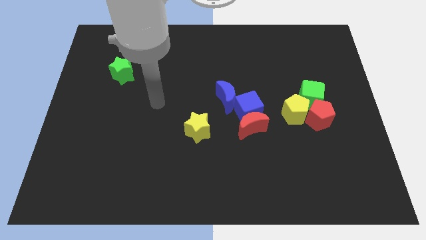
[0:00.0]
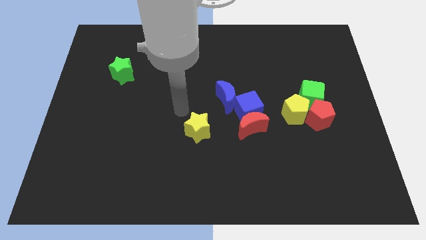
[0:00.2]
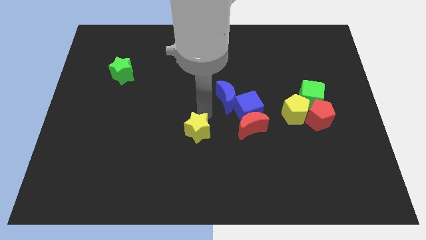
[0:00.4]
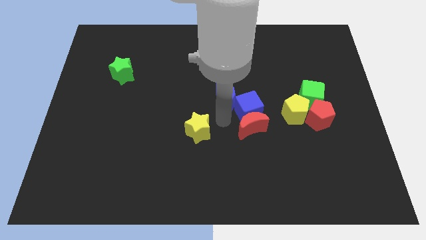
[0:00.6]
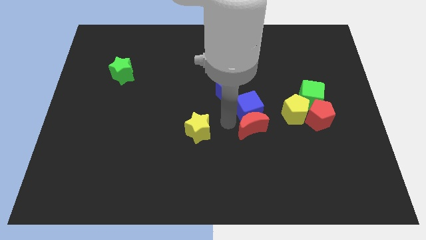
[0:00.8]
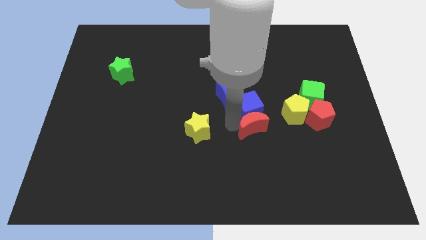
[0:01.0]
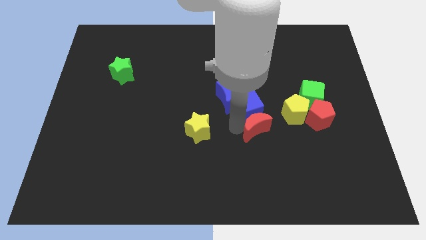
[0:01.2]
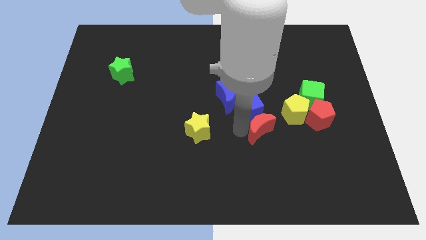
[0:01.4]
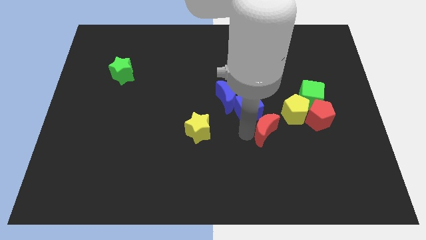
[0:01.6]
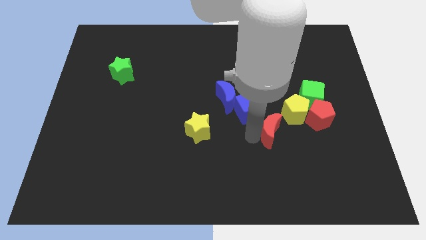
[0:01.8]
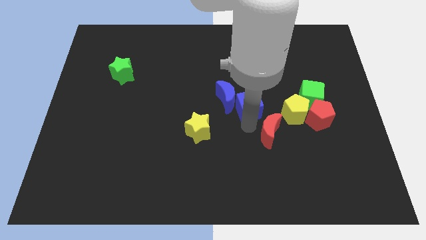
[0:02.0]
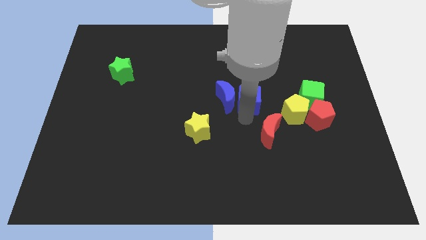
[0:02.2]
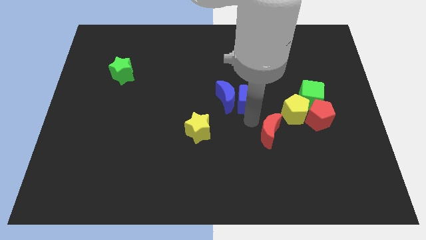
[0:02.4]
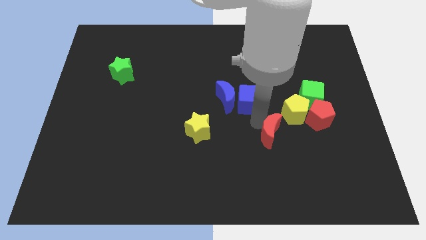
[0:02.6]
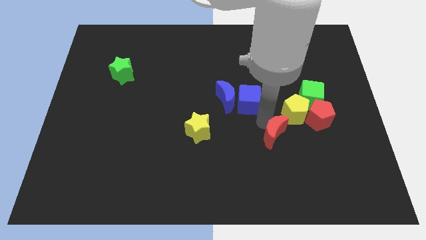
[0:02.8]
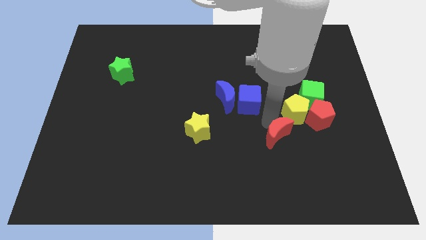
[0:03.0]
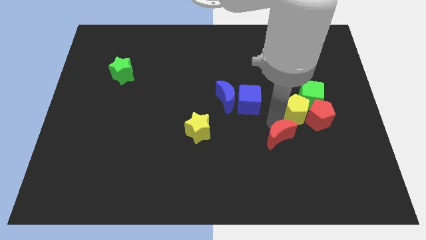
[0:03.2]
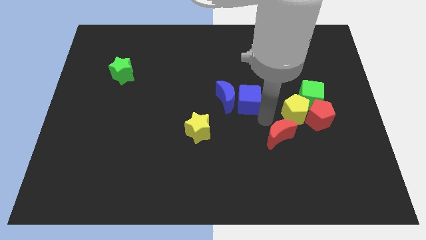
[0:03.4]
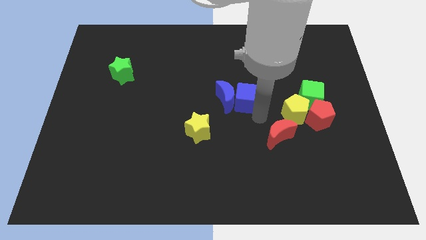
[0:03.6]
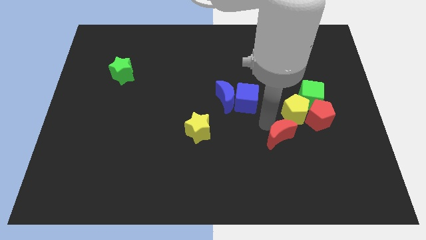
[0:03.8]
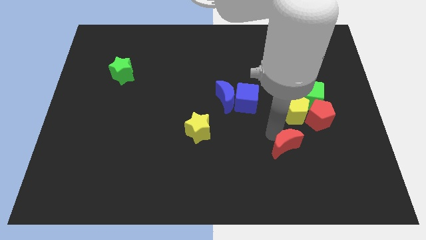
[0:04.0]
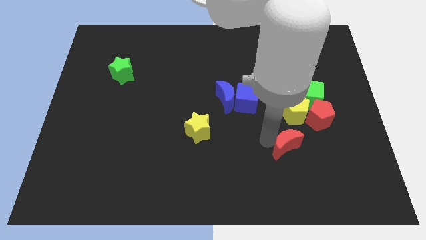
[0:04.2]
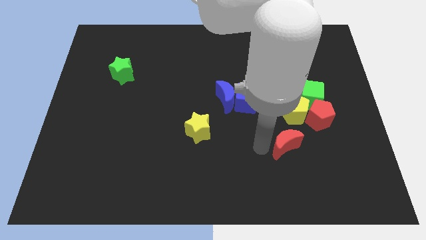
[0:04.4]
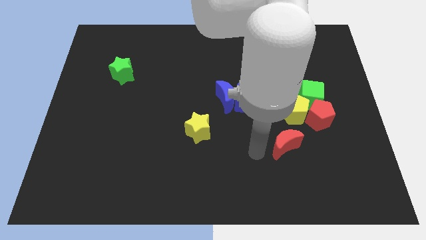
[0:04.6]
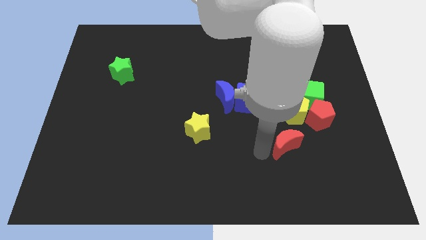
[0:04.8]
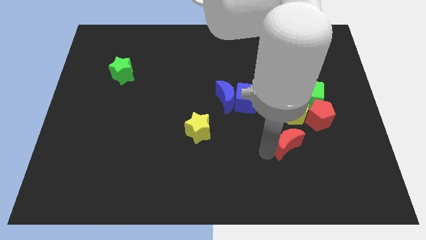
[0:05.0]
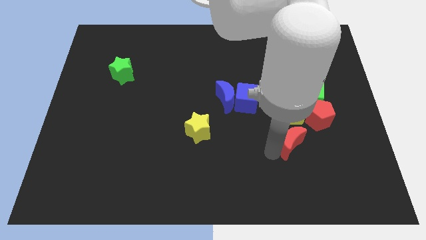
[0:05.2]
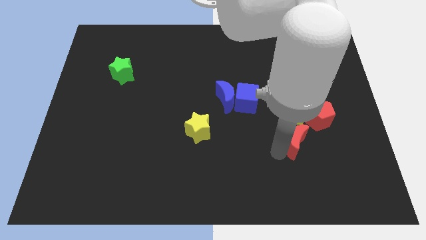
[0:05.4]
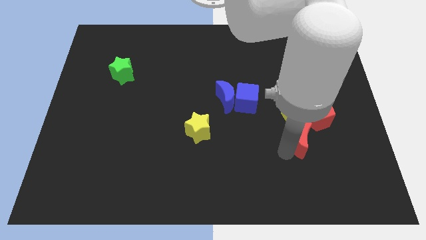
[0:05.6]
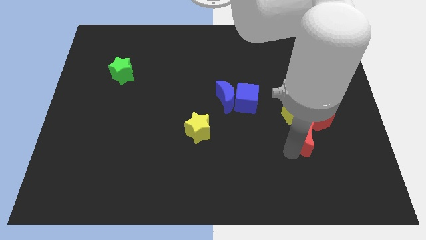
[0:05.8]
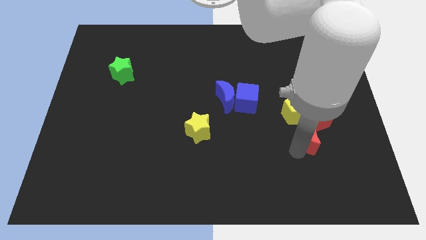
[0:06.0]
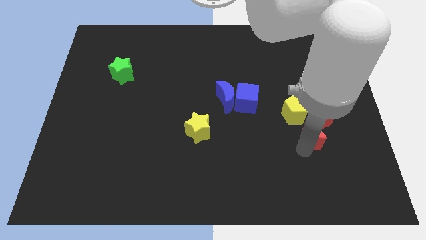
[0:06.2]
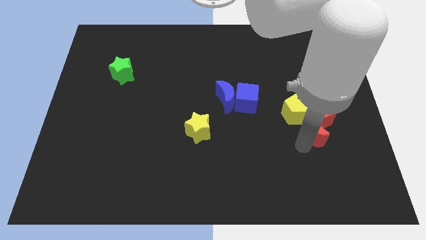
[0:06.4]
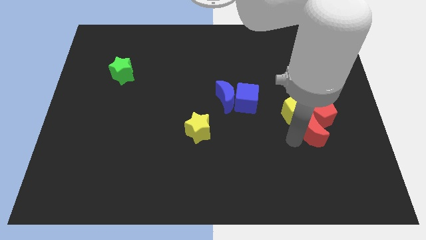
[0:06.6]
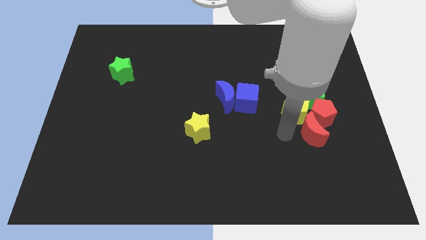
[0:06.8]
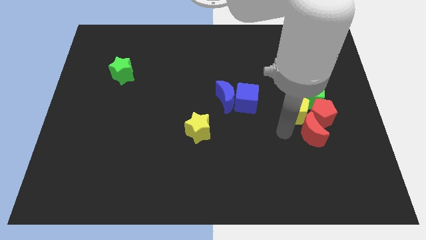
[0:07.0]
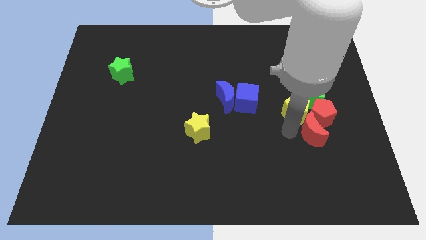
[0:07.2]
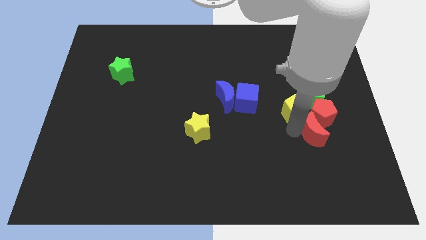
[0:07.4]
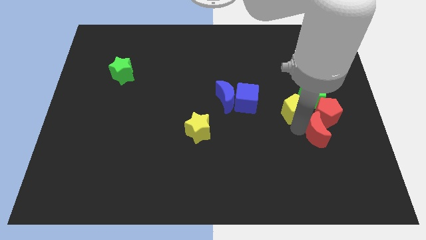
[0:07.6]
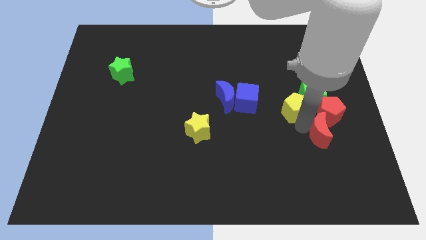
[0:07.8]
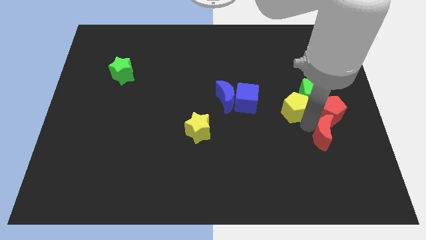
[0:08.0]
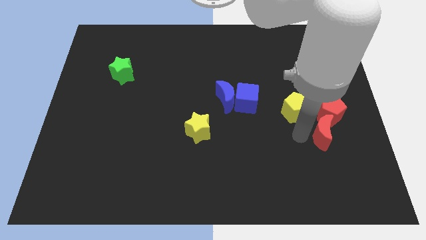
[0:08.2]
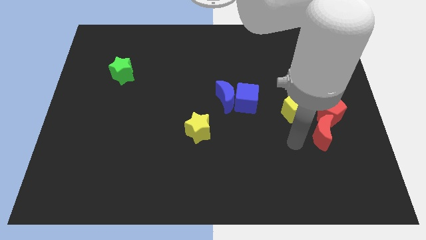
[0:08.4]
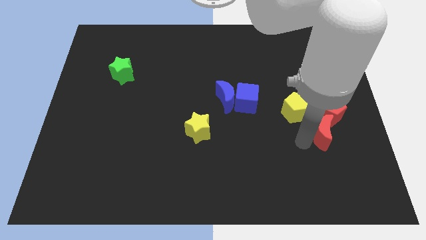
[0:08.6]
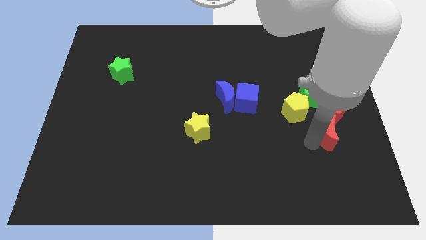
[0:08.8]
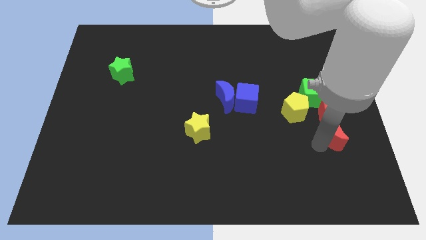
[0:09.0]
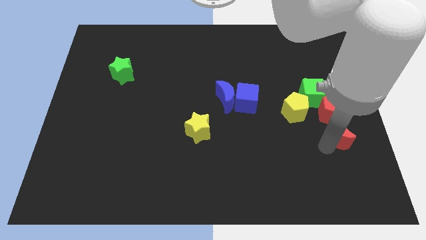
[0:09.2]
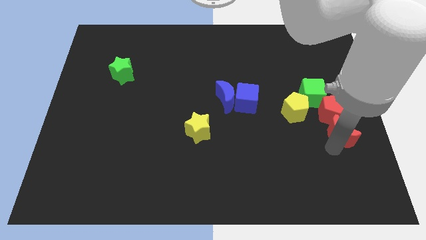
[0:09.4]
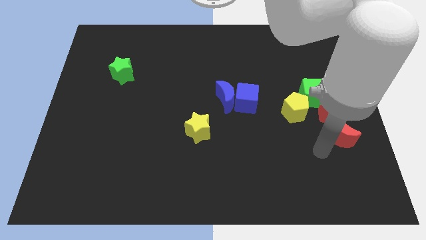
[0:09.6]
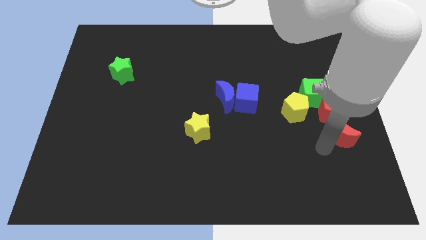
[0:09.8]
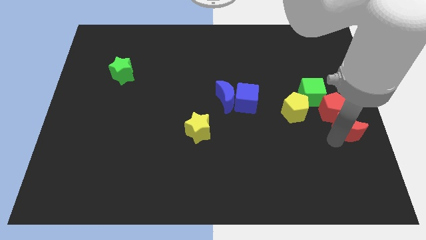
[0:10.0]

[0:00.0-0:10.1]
push the red moon to the right side of the board

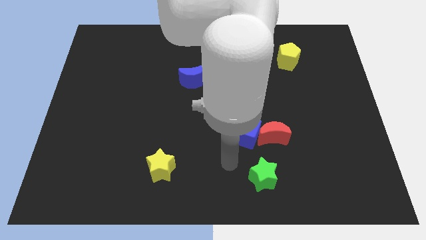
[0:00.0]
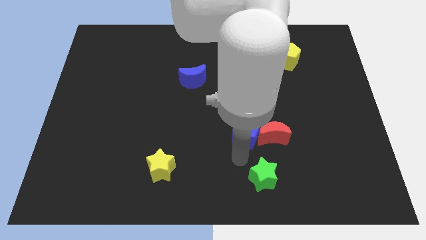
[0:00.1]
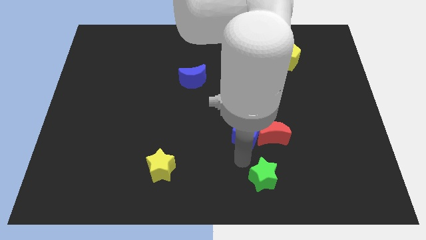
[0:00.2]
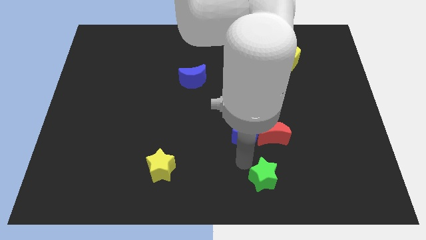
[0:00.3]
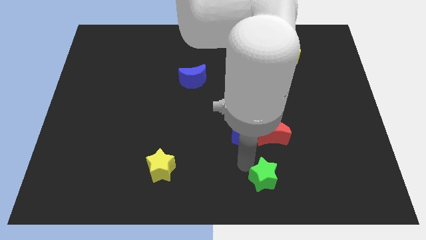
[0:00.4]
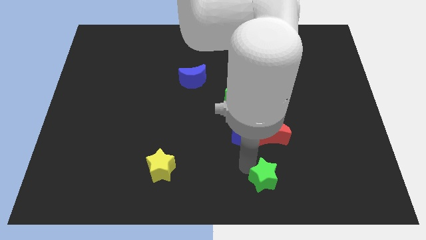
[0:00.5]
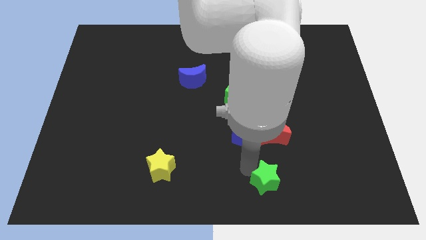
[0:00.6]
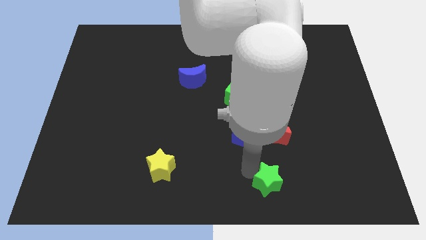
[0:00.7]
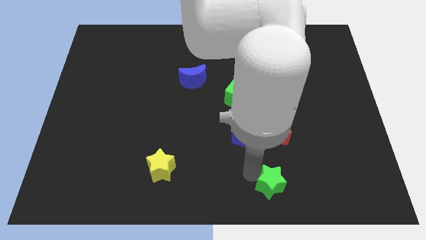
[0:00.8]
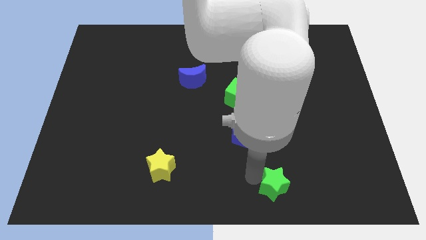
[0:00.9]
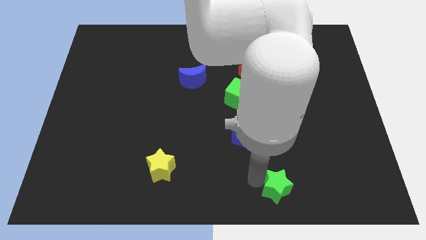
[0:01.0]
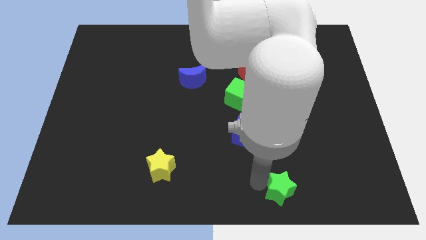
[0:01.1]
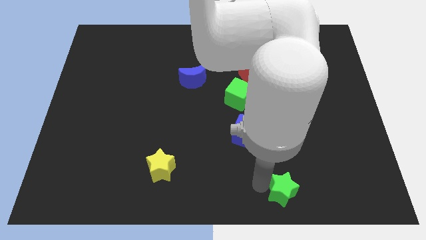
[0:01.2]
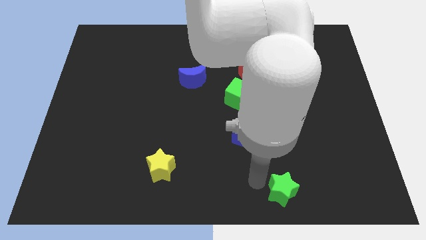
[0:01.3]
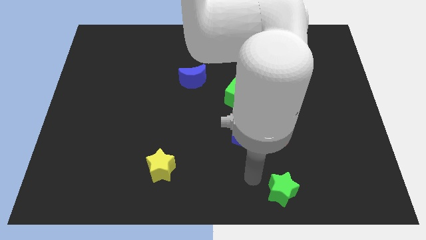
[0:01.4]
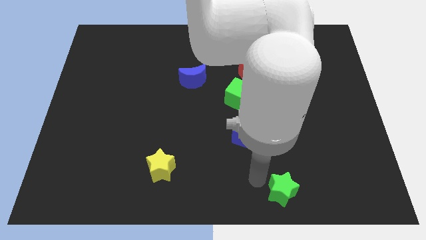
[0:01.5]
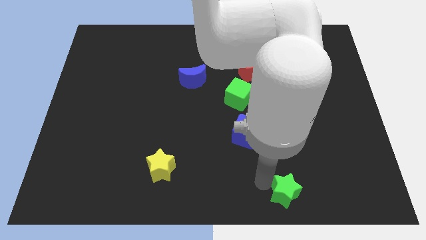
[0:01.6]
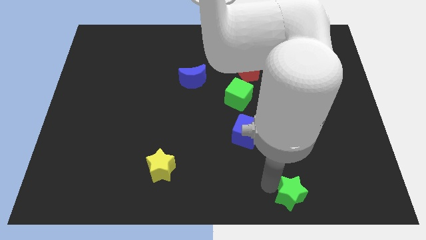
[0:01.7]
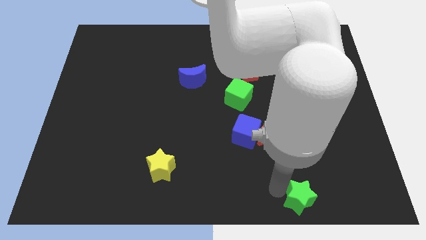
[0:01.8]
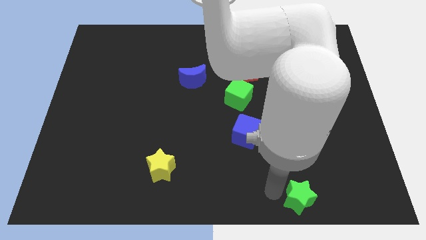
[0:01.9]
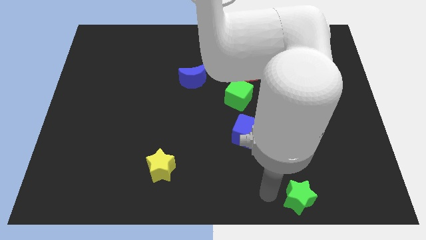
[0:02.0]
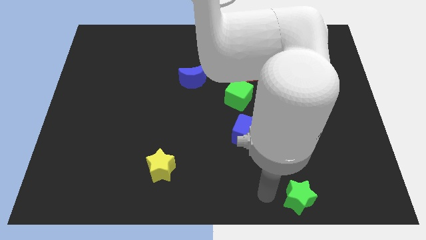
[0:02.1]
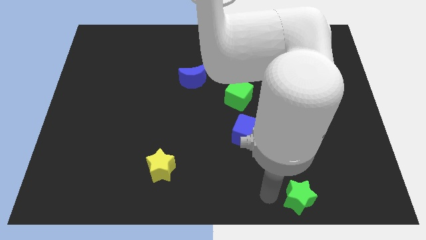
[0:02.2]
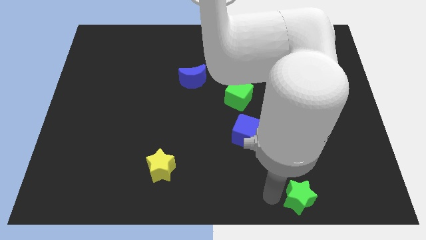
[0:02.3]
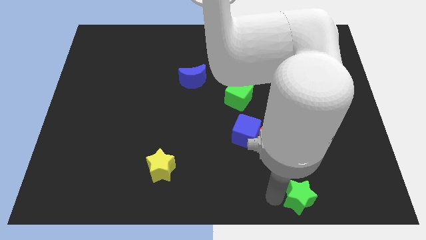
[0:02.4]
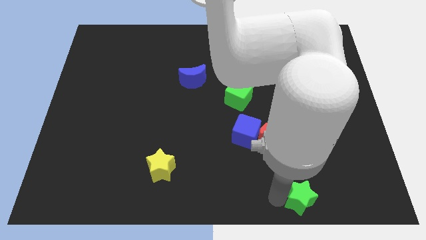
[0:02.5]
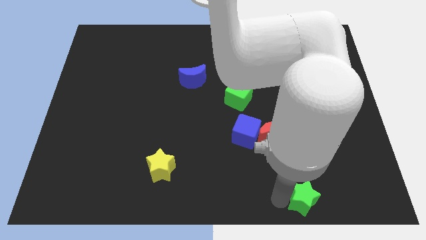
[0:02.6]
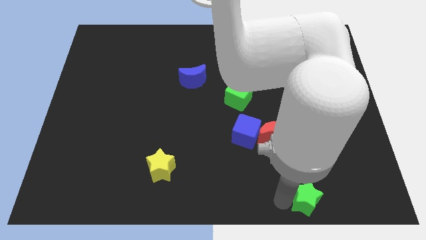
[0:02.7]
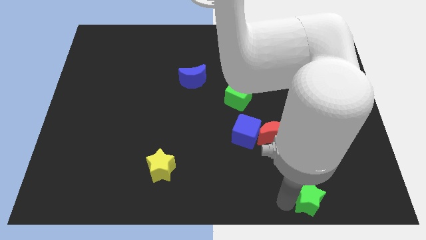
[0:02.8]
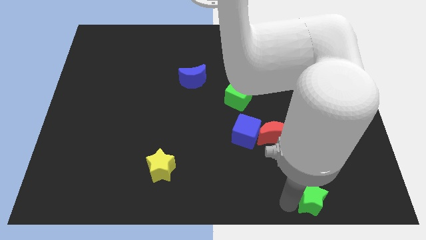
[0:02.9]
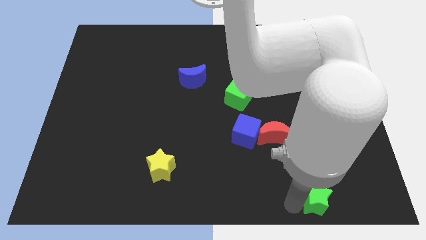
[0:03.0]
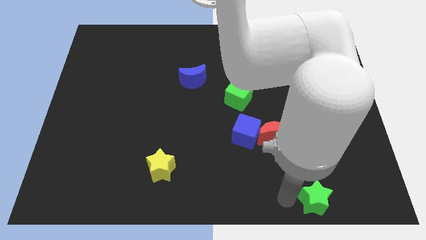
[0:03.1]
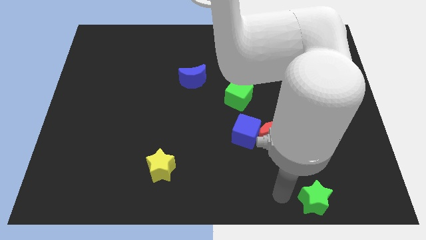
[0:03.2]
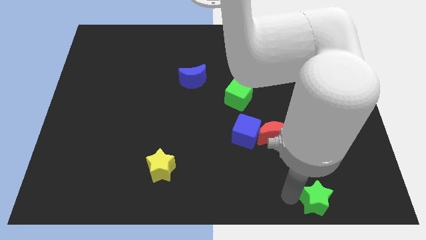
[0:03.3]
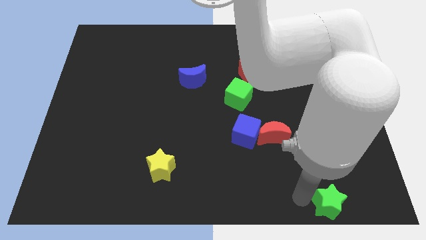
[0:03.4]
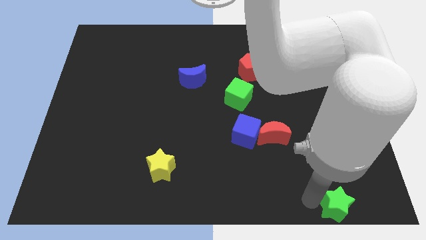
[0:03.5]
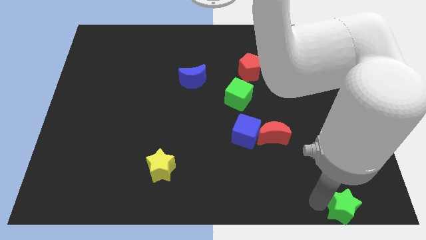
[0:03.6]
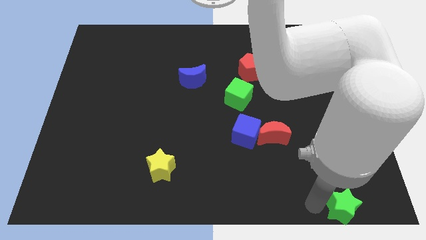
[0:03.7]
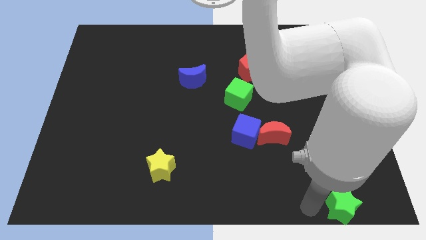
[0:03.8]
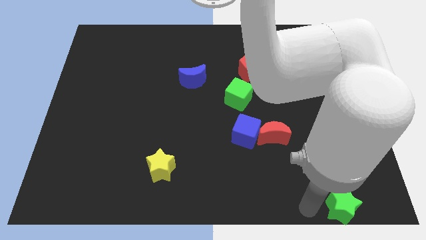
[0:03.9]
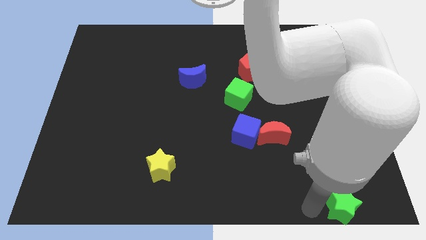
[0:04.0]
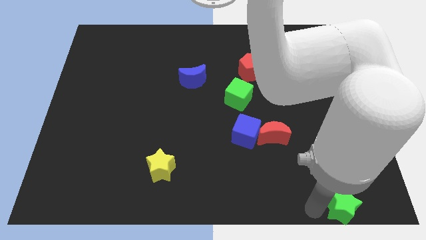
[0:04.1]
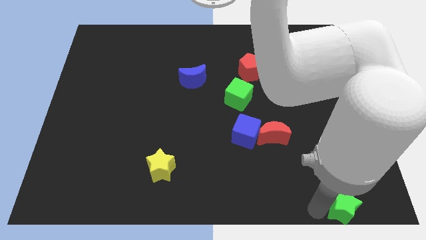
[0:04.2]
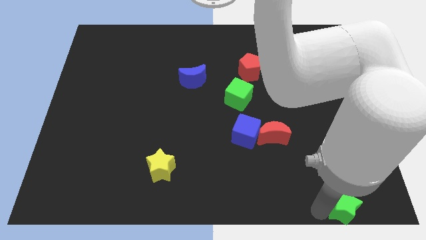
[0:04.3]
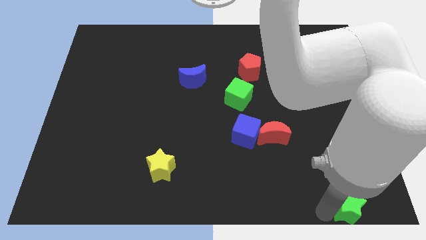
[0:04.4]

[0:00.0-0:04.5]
push the green star to the bottom right
